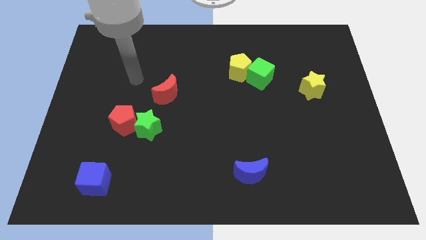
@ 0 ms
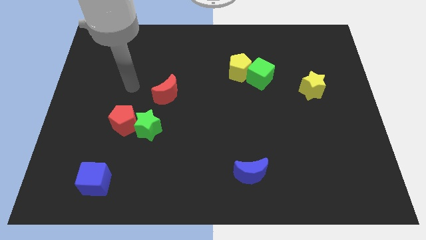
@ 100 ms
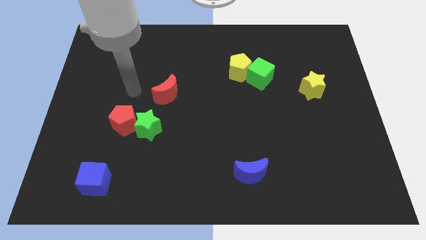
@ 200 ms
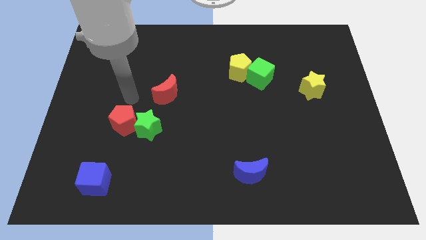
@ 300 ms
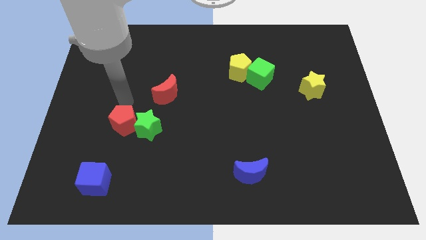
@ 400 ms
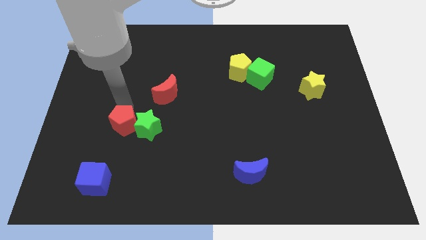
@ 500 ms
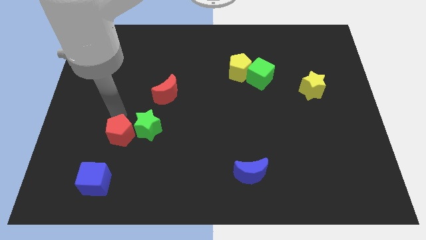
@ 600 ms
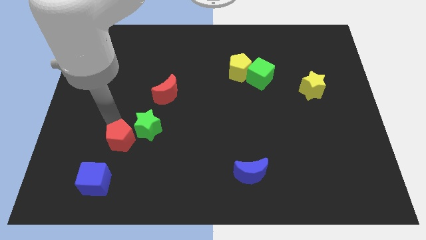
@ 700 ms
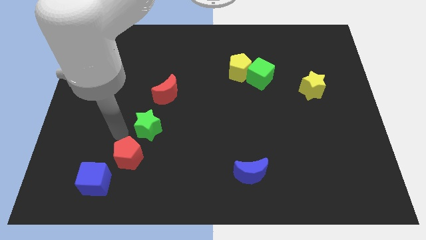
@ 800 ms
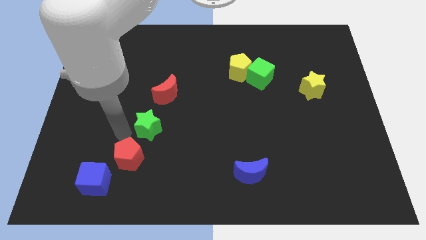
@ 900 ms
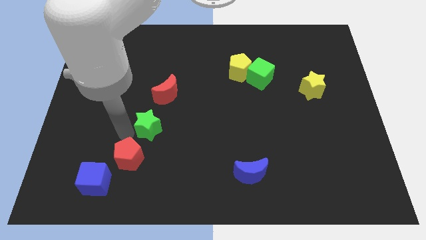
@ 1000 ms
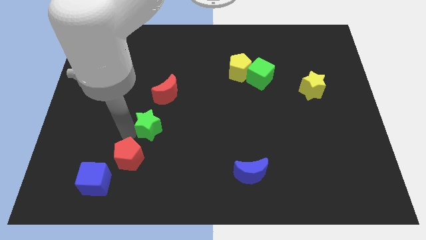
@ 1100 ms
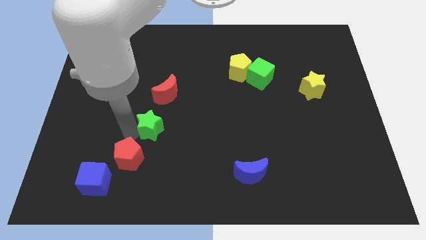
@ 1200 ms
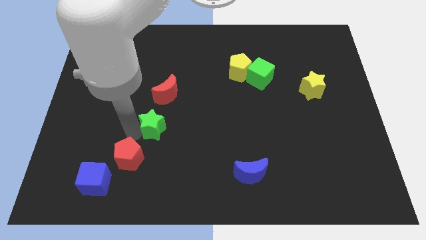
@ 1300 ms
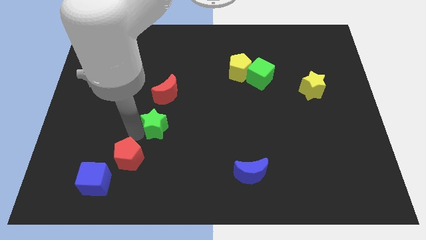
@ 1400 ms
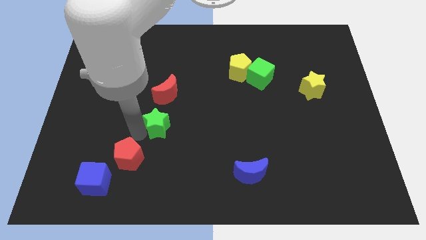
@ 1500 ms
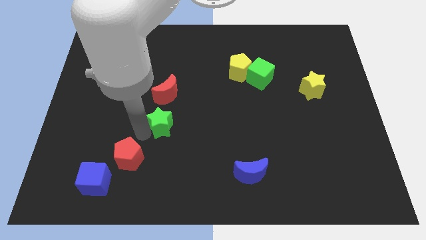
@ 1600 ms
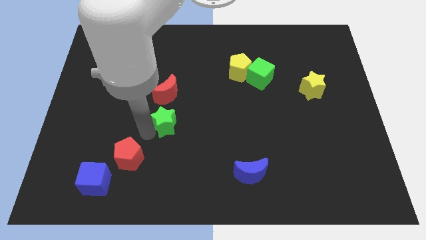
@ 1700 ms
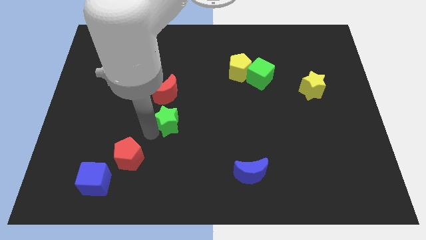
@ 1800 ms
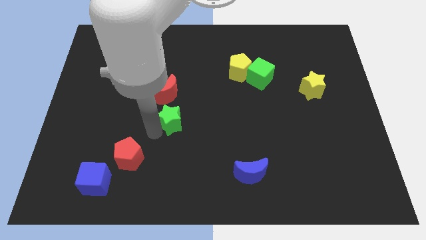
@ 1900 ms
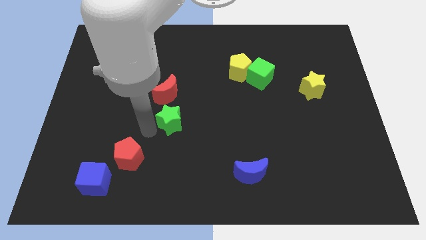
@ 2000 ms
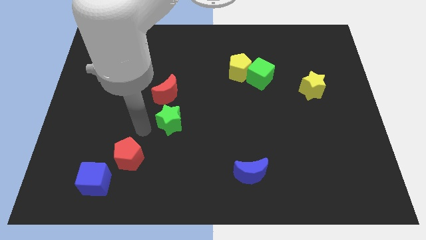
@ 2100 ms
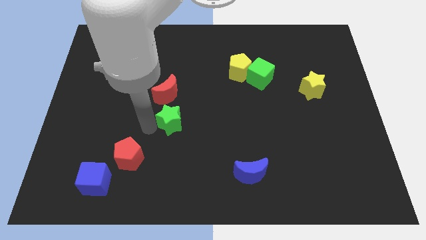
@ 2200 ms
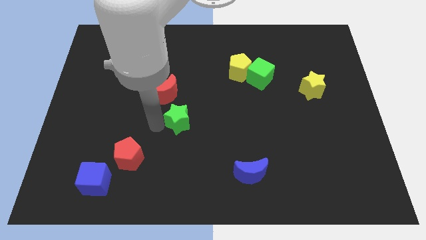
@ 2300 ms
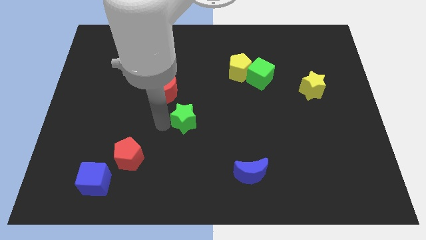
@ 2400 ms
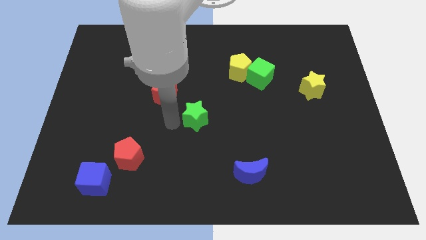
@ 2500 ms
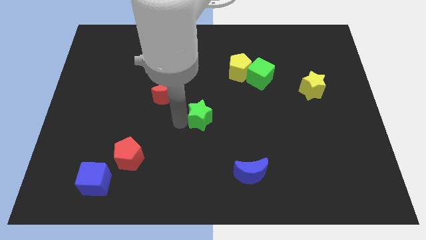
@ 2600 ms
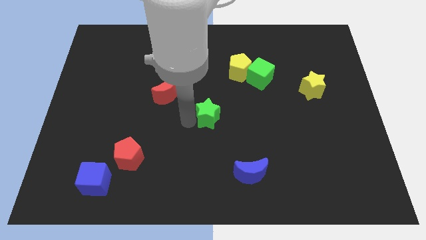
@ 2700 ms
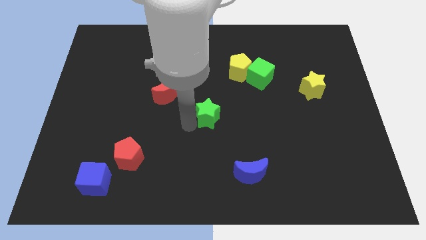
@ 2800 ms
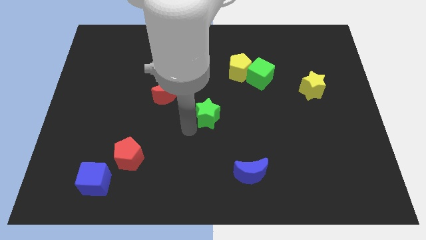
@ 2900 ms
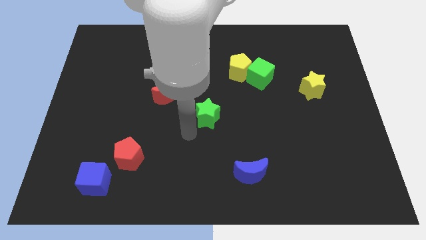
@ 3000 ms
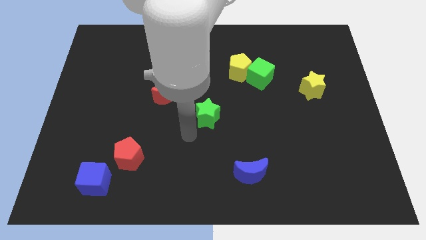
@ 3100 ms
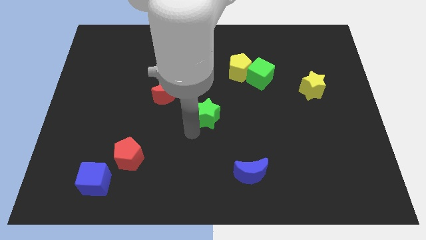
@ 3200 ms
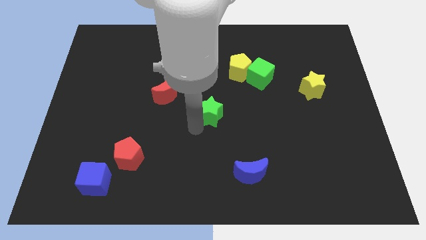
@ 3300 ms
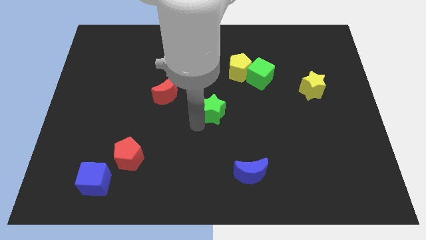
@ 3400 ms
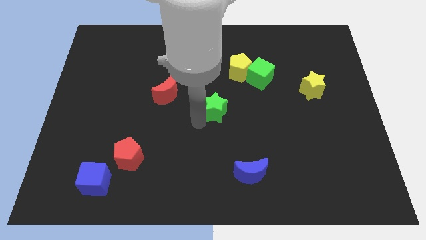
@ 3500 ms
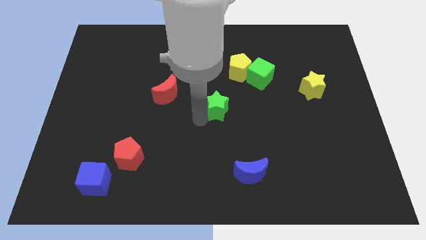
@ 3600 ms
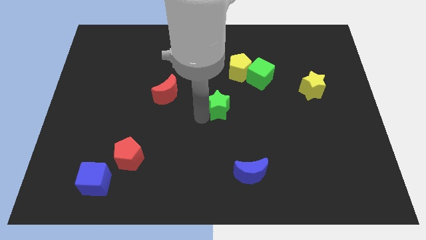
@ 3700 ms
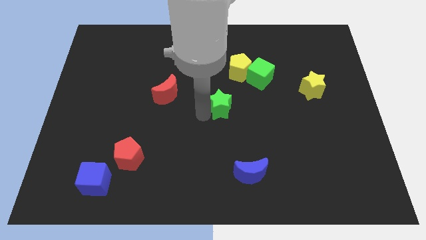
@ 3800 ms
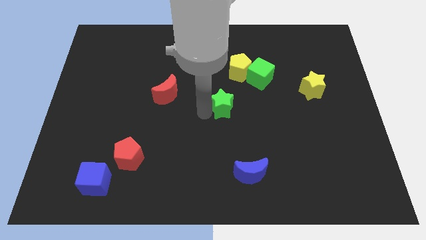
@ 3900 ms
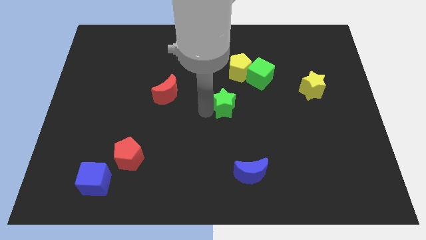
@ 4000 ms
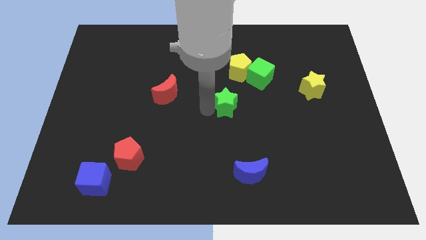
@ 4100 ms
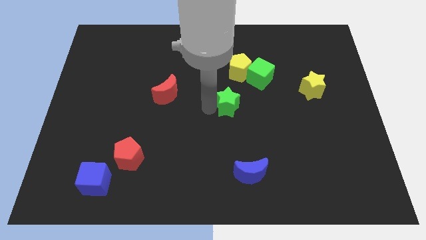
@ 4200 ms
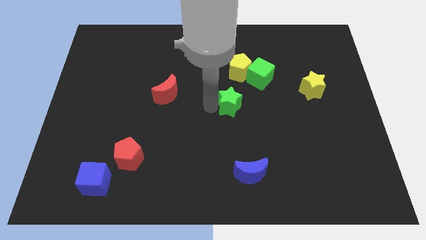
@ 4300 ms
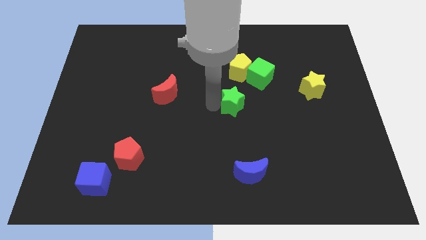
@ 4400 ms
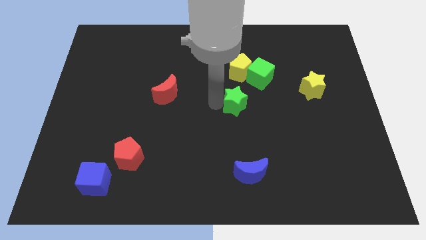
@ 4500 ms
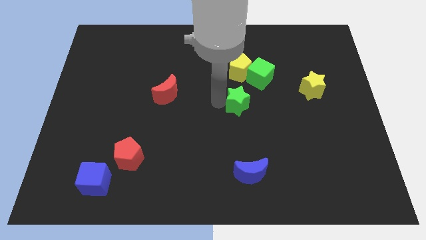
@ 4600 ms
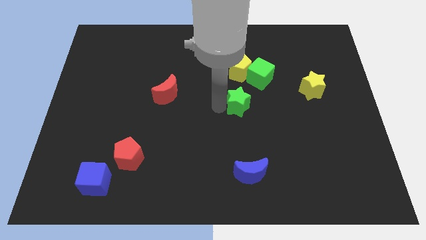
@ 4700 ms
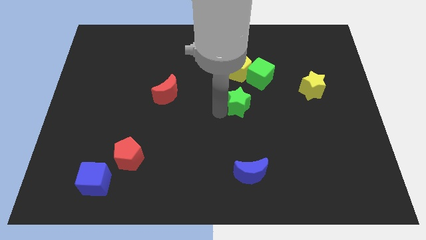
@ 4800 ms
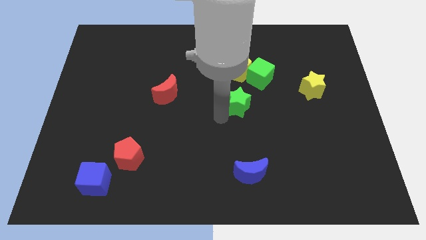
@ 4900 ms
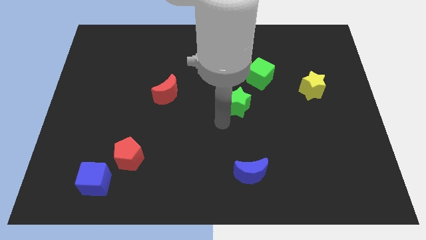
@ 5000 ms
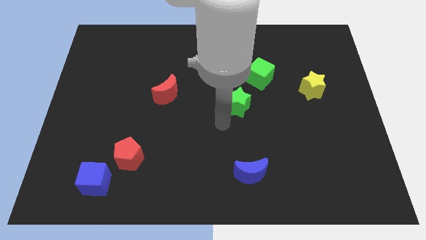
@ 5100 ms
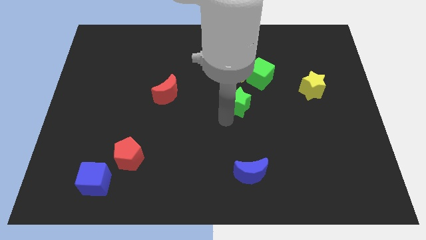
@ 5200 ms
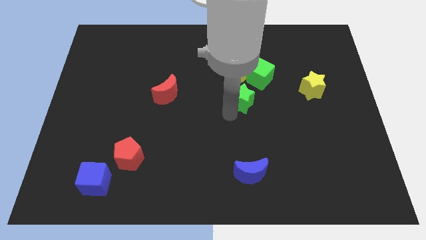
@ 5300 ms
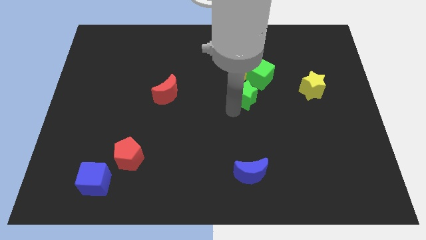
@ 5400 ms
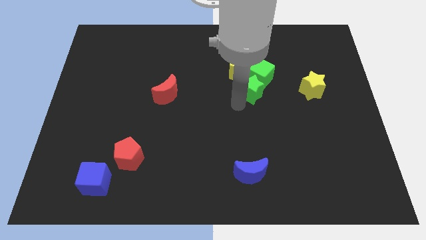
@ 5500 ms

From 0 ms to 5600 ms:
put the green star next to the green cube

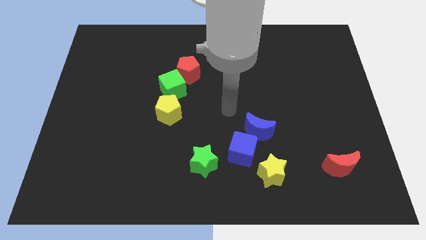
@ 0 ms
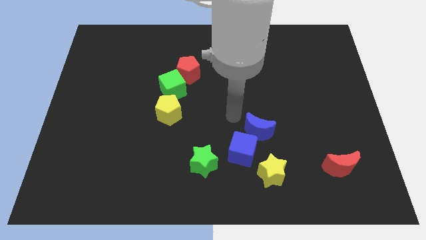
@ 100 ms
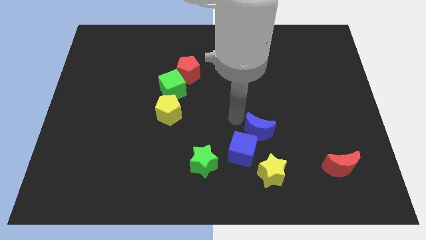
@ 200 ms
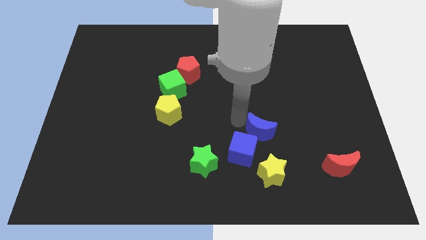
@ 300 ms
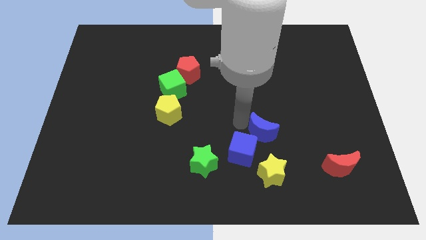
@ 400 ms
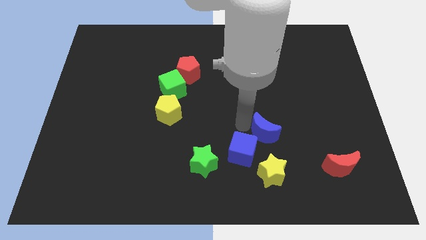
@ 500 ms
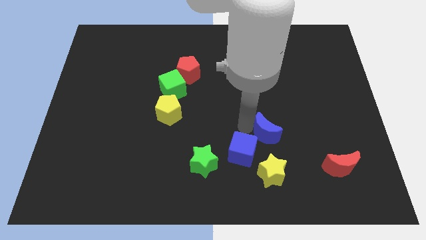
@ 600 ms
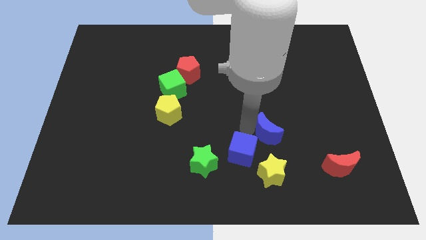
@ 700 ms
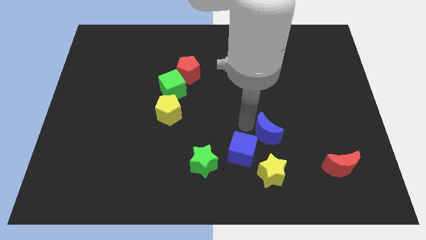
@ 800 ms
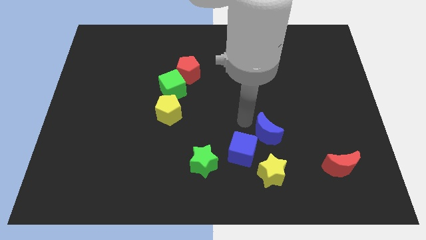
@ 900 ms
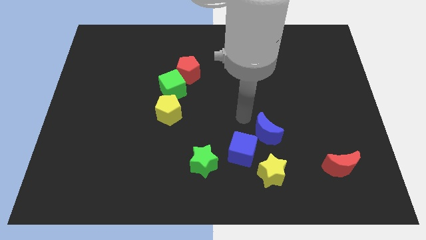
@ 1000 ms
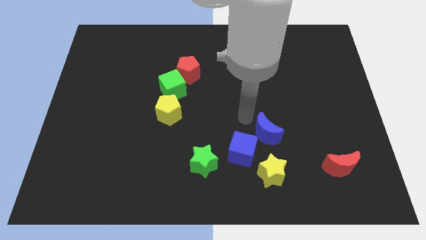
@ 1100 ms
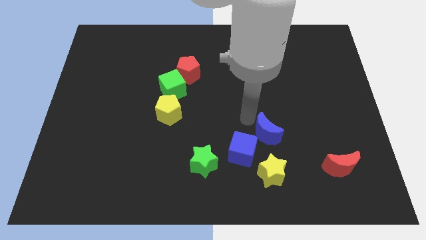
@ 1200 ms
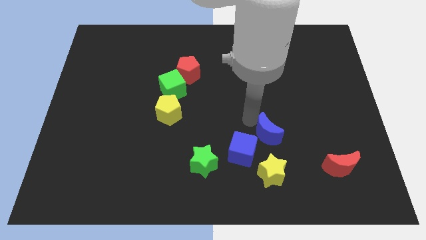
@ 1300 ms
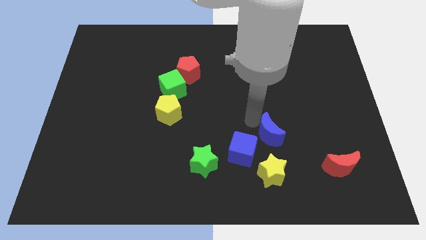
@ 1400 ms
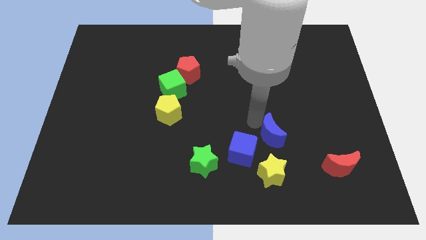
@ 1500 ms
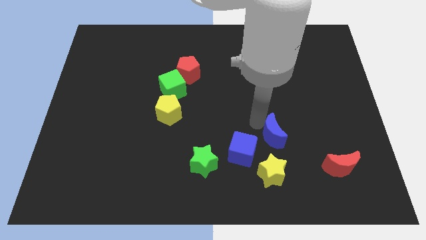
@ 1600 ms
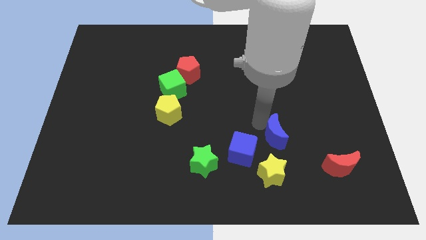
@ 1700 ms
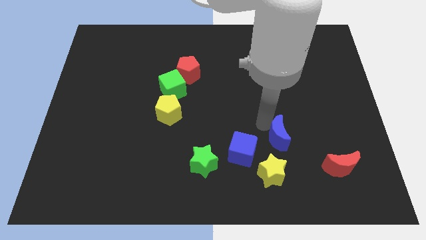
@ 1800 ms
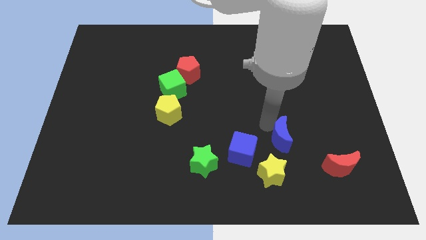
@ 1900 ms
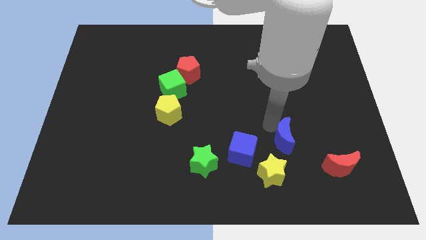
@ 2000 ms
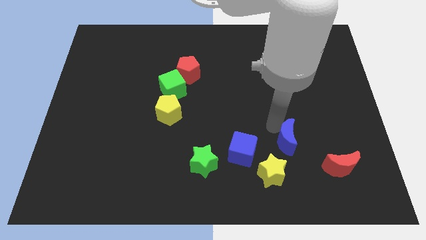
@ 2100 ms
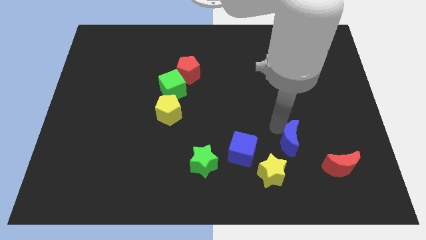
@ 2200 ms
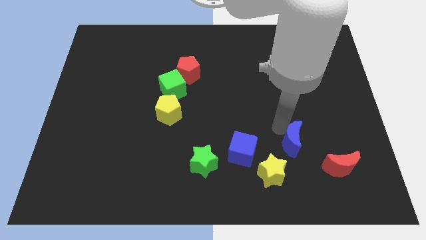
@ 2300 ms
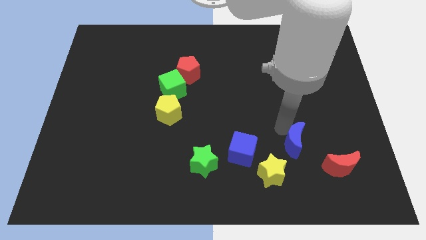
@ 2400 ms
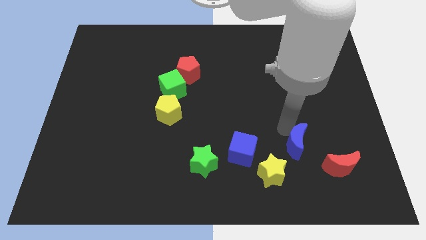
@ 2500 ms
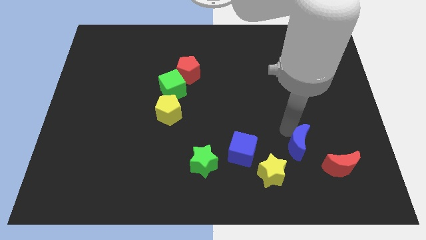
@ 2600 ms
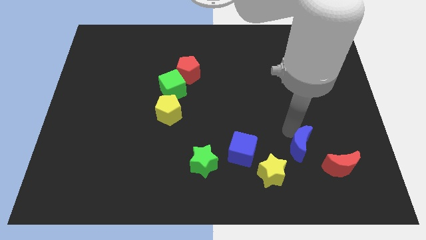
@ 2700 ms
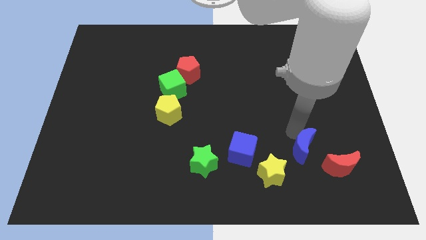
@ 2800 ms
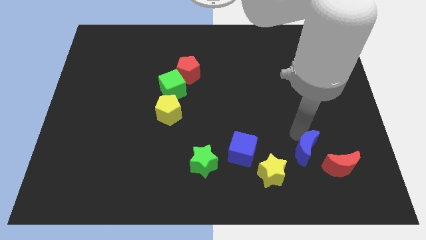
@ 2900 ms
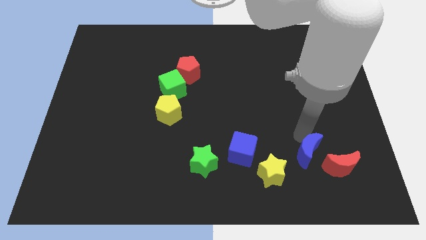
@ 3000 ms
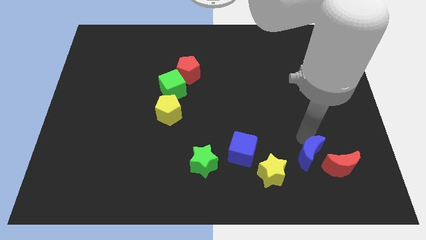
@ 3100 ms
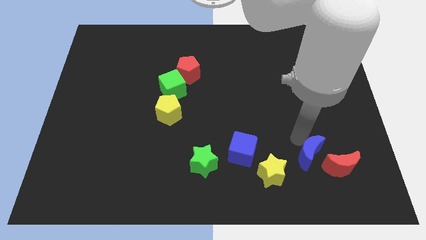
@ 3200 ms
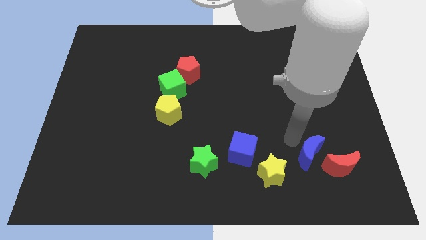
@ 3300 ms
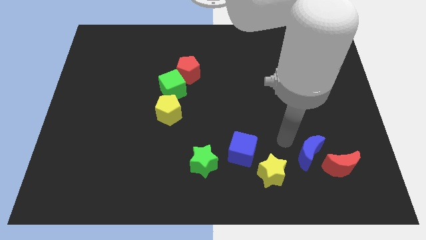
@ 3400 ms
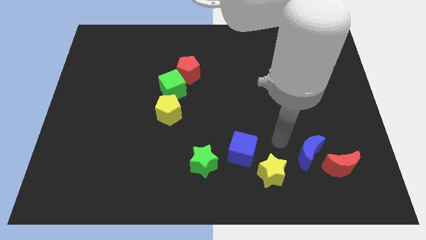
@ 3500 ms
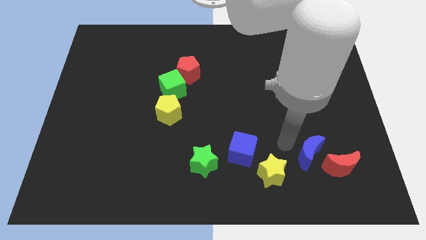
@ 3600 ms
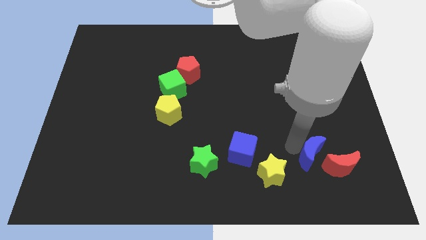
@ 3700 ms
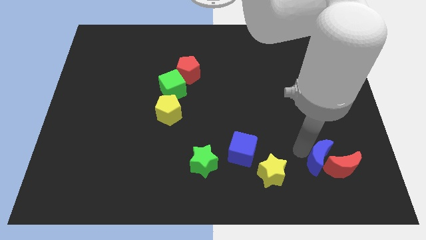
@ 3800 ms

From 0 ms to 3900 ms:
put the blue moon towards the red moon
